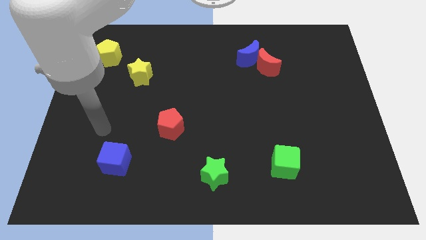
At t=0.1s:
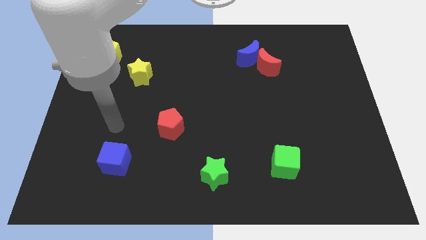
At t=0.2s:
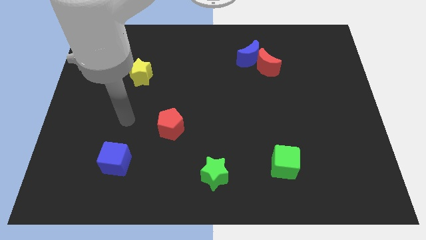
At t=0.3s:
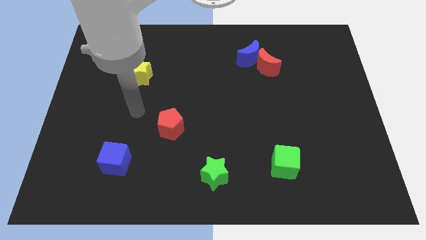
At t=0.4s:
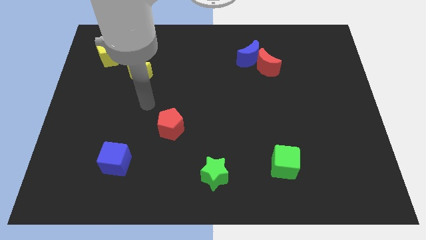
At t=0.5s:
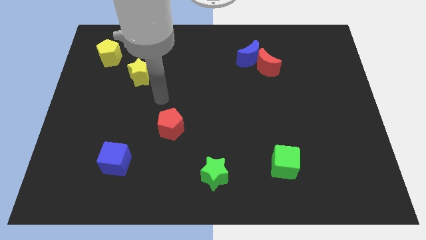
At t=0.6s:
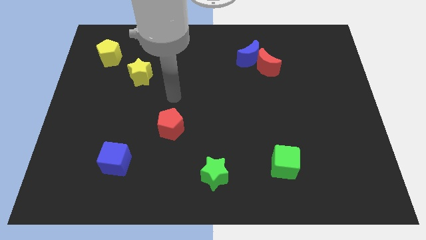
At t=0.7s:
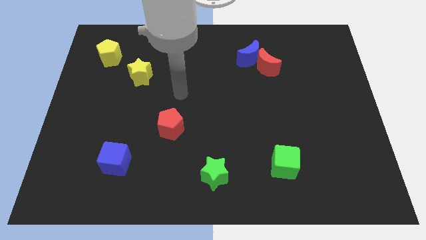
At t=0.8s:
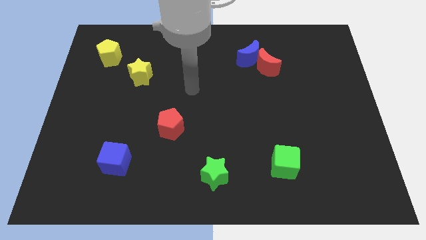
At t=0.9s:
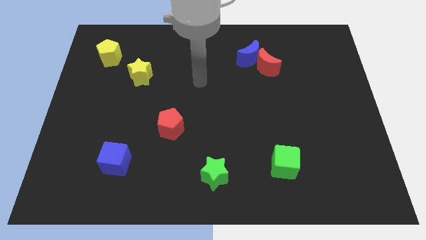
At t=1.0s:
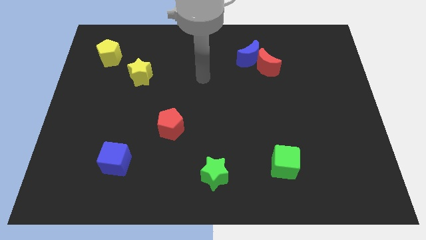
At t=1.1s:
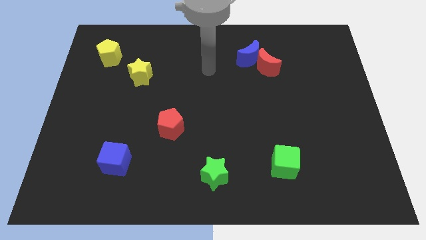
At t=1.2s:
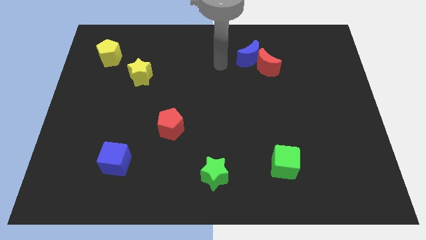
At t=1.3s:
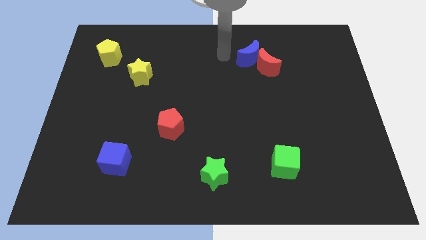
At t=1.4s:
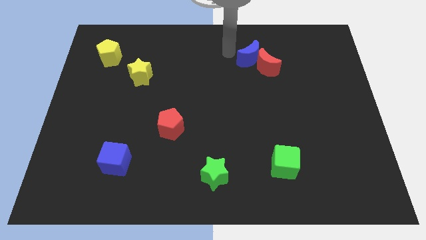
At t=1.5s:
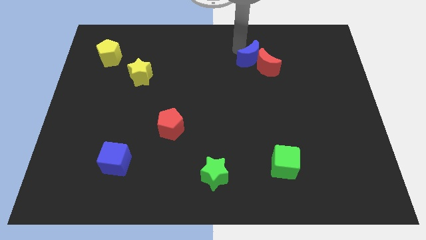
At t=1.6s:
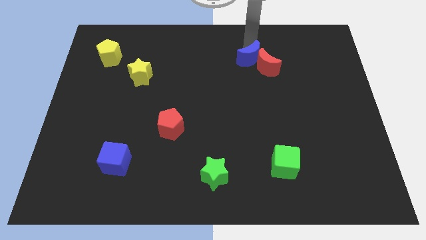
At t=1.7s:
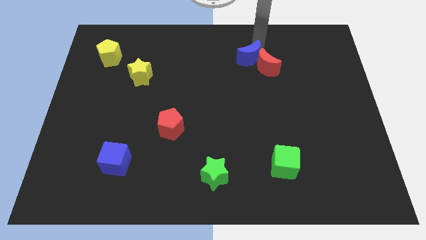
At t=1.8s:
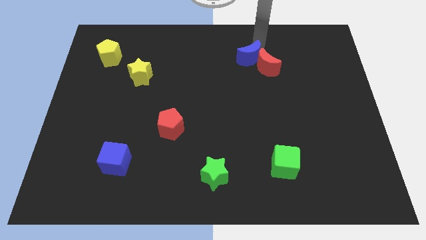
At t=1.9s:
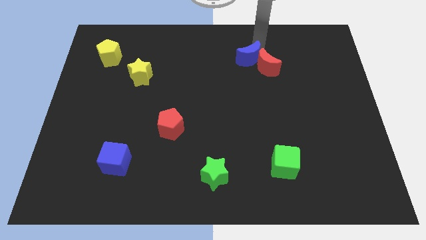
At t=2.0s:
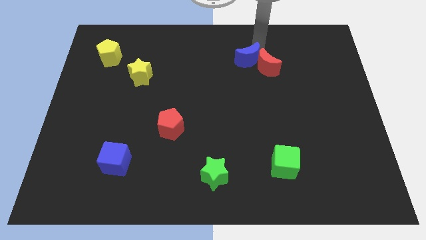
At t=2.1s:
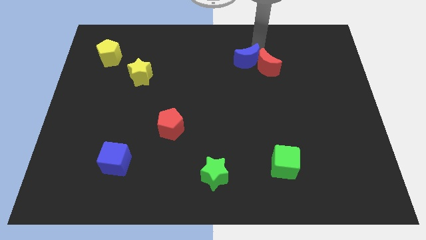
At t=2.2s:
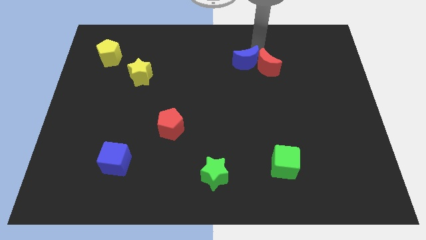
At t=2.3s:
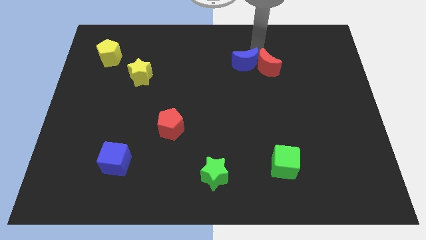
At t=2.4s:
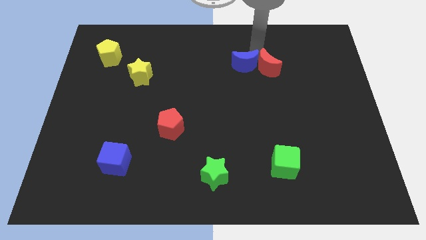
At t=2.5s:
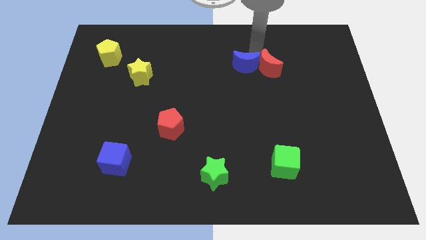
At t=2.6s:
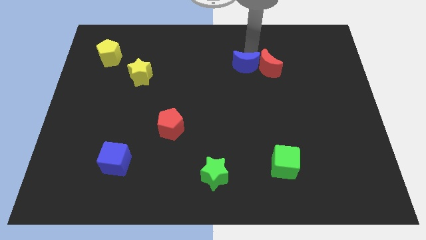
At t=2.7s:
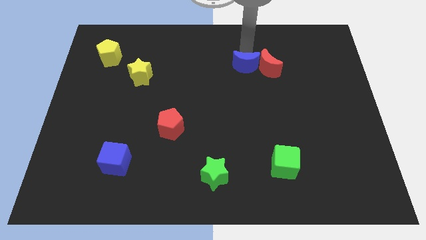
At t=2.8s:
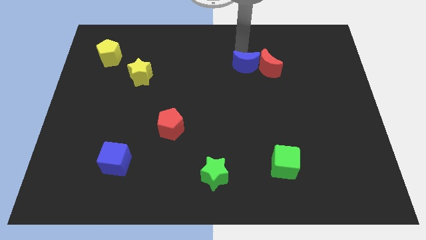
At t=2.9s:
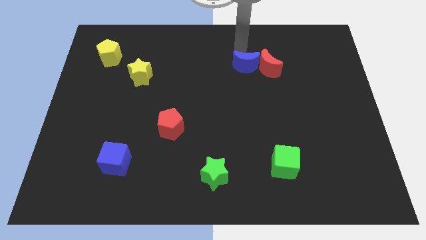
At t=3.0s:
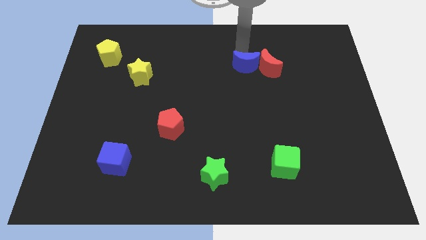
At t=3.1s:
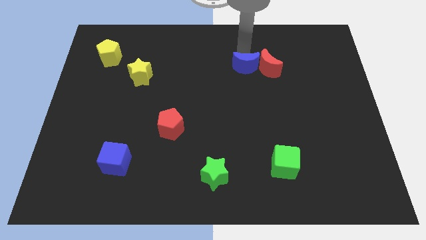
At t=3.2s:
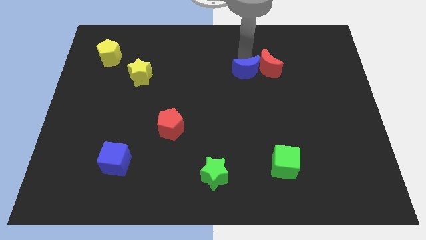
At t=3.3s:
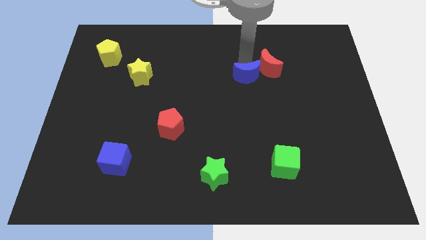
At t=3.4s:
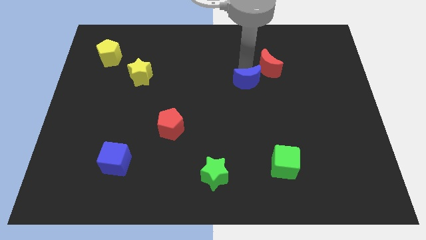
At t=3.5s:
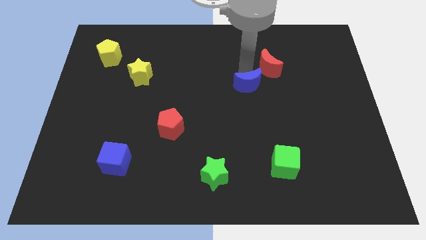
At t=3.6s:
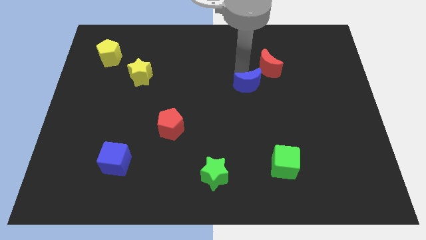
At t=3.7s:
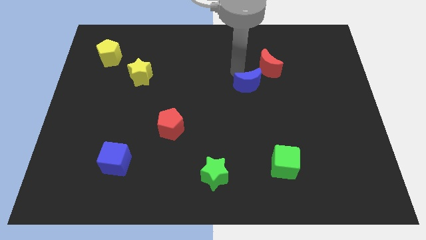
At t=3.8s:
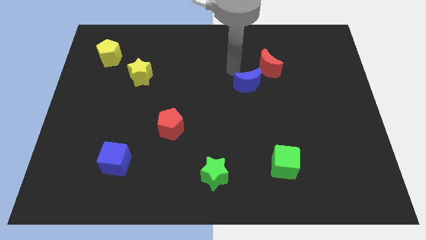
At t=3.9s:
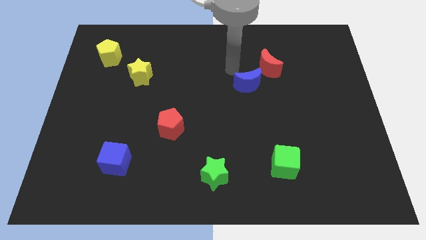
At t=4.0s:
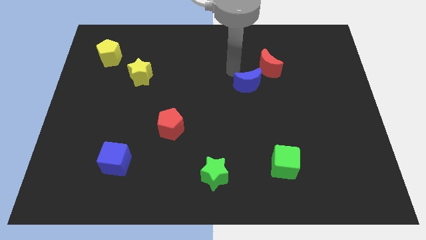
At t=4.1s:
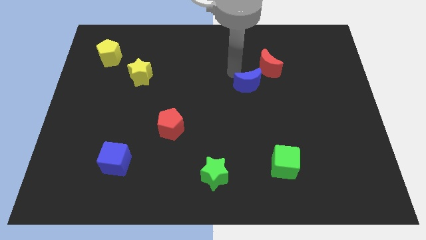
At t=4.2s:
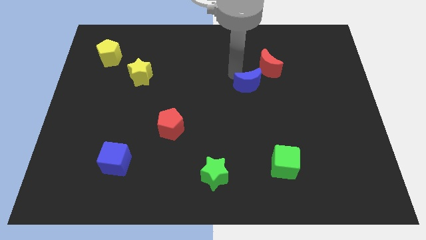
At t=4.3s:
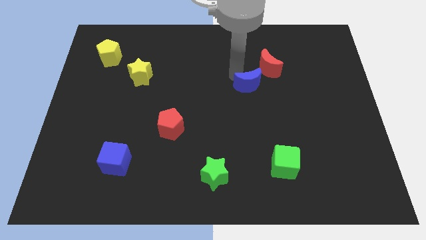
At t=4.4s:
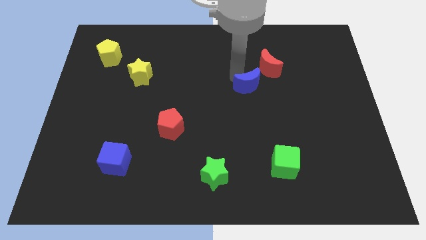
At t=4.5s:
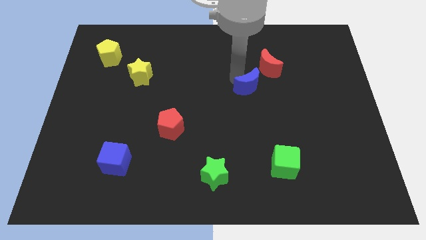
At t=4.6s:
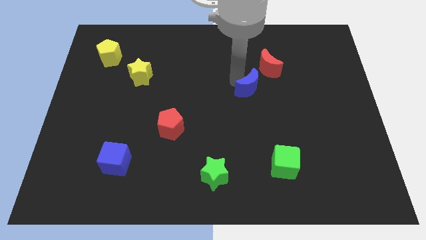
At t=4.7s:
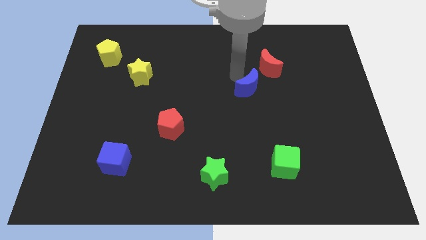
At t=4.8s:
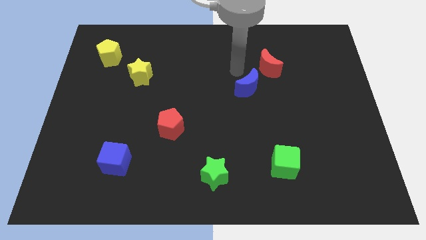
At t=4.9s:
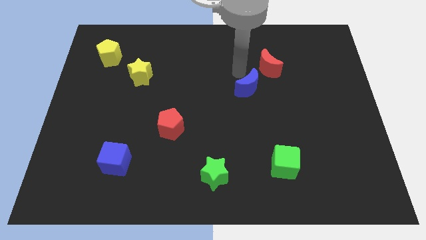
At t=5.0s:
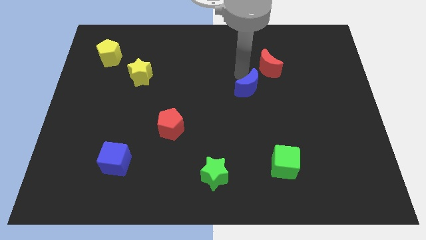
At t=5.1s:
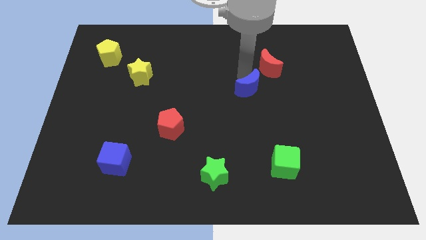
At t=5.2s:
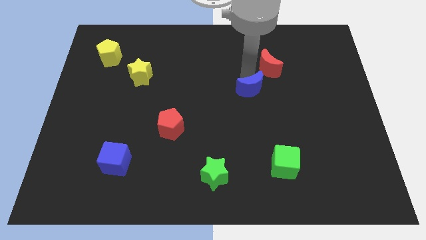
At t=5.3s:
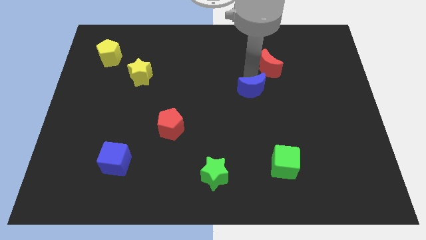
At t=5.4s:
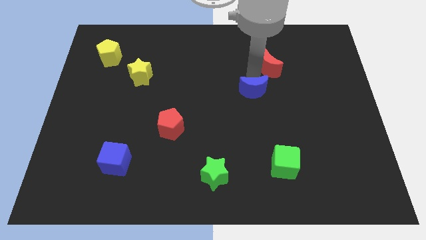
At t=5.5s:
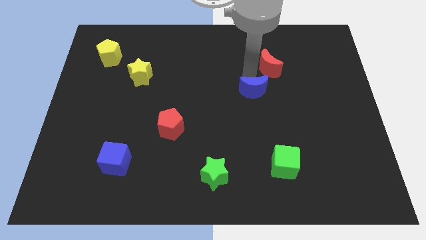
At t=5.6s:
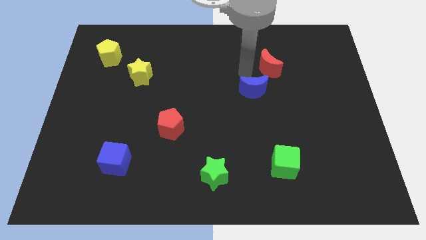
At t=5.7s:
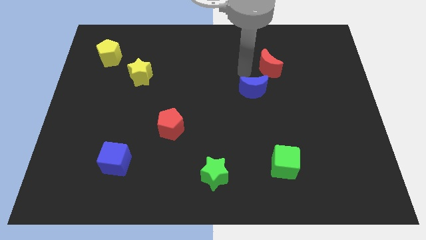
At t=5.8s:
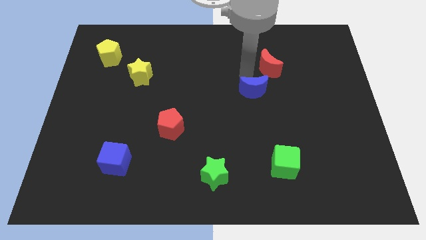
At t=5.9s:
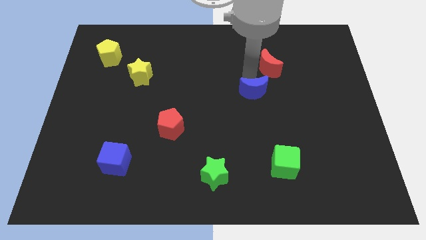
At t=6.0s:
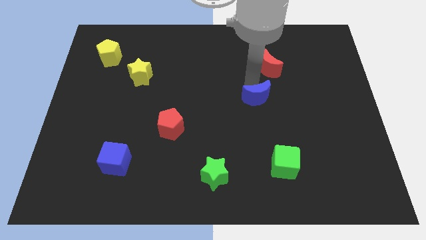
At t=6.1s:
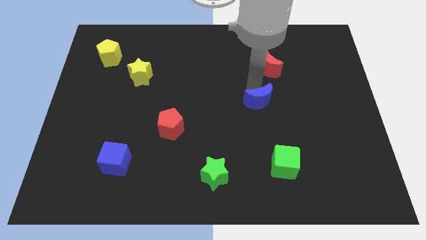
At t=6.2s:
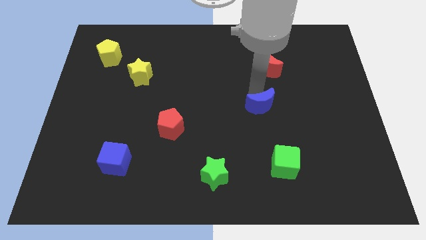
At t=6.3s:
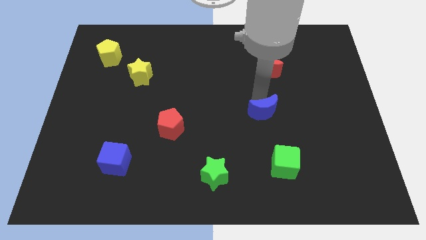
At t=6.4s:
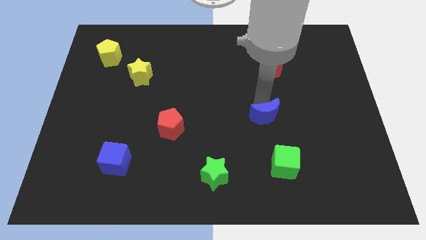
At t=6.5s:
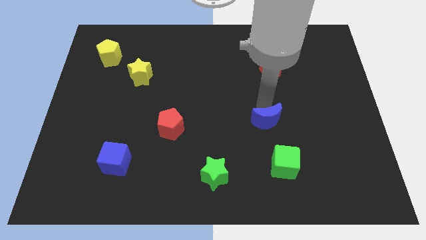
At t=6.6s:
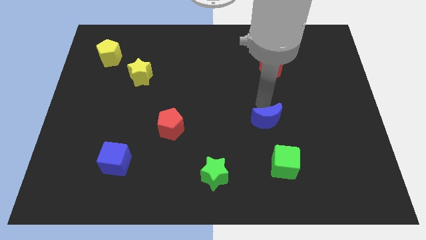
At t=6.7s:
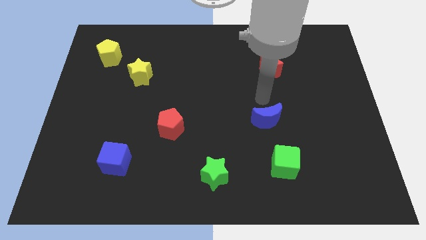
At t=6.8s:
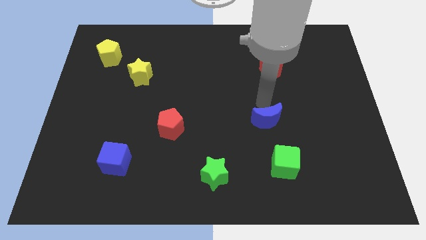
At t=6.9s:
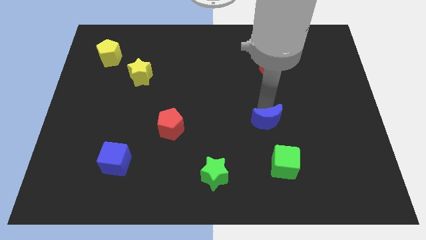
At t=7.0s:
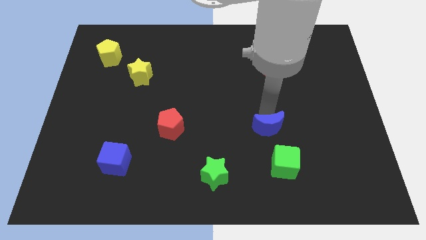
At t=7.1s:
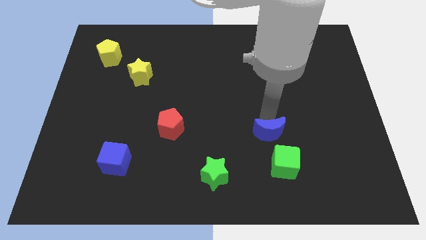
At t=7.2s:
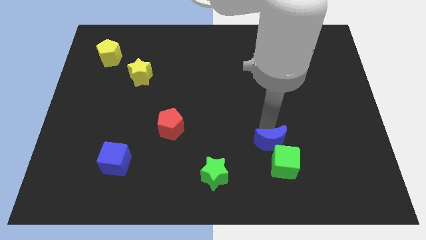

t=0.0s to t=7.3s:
move the blue moon next to the green cube
